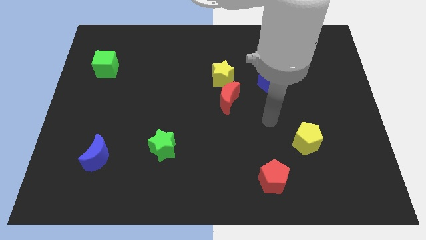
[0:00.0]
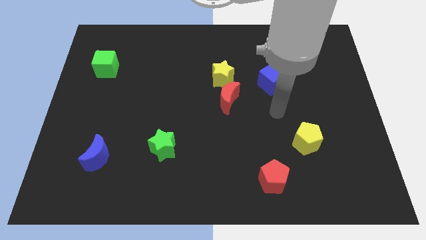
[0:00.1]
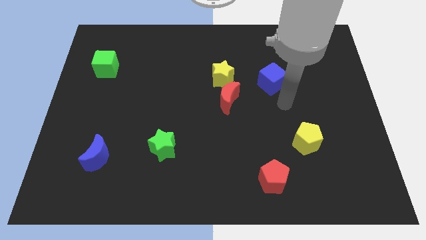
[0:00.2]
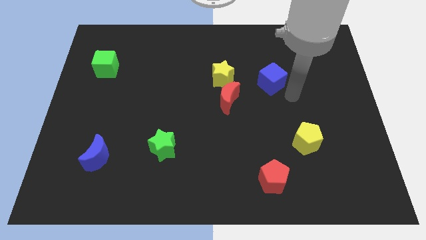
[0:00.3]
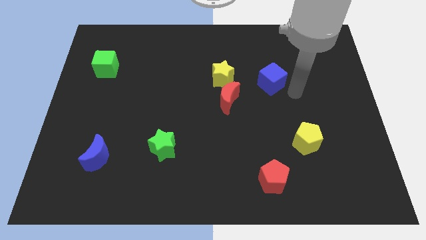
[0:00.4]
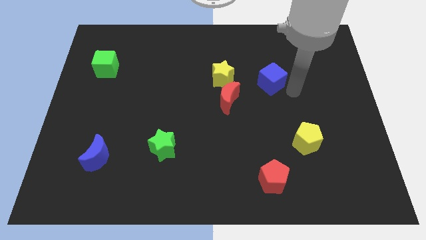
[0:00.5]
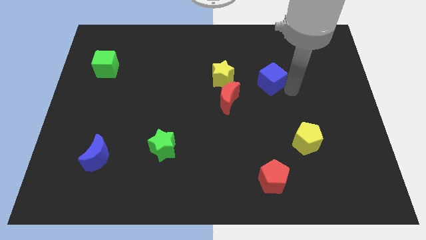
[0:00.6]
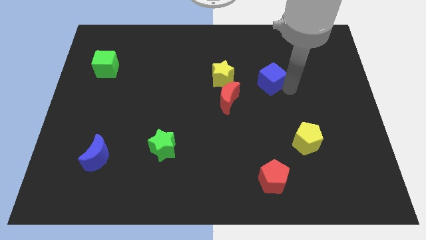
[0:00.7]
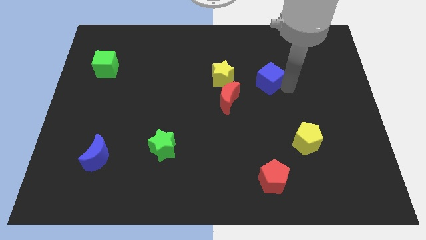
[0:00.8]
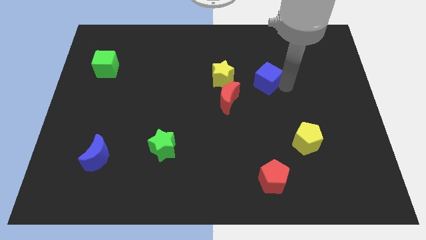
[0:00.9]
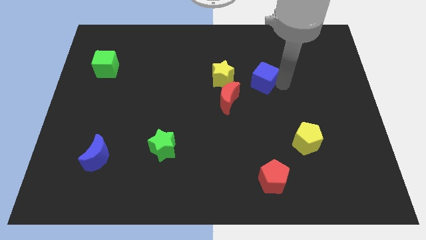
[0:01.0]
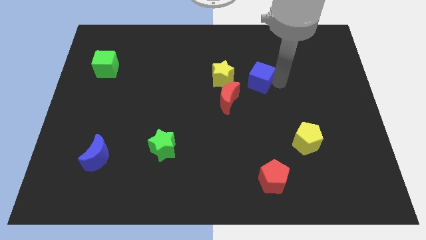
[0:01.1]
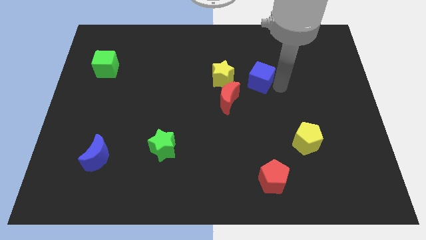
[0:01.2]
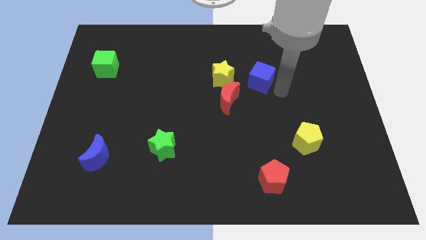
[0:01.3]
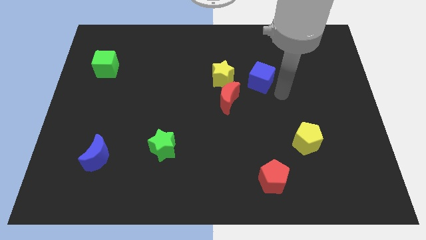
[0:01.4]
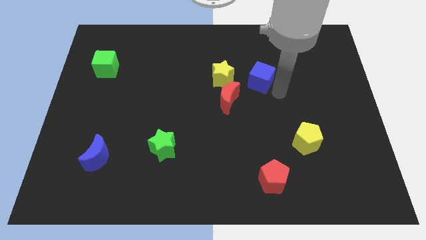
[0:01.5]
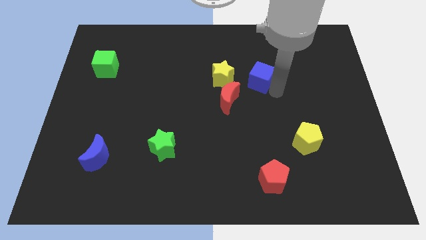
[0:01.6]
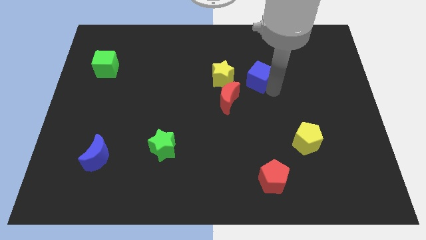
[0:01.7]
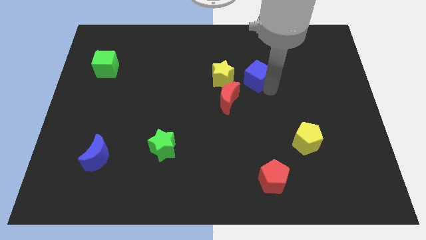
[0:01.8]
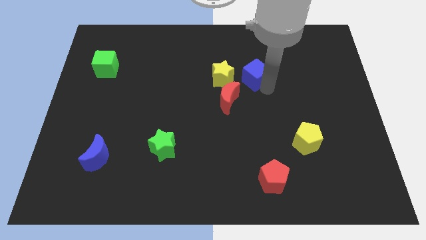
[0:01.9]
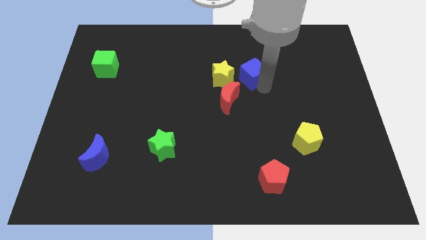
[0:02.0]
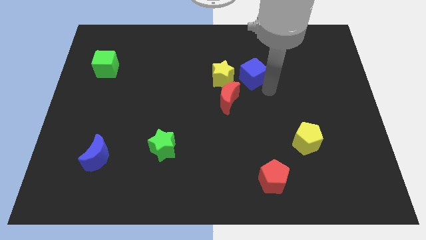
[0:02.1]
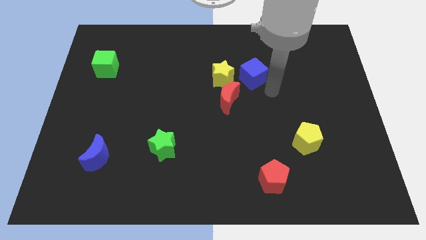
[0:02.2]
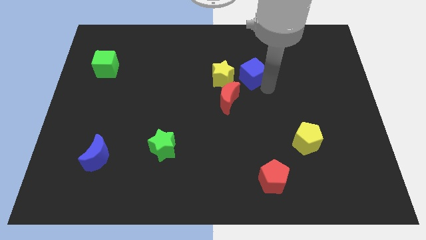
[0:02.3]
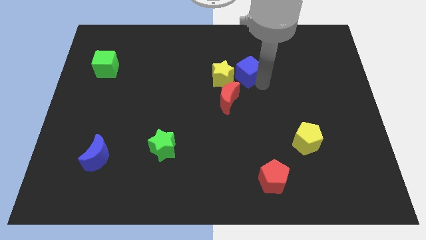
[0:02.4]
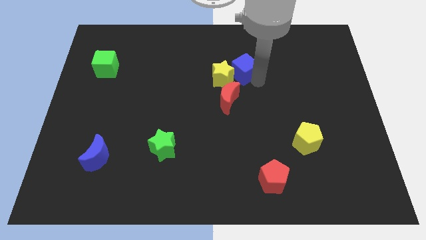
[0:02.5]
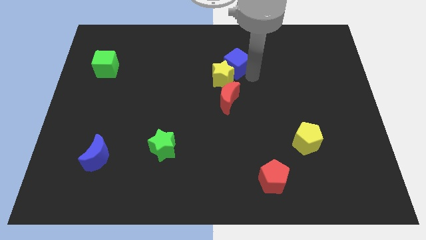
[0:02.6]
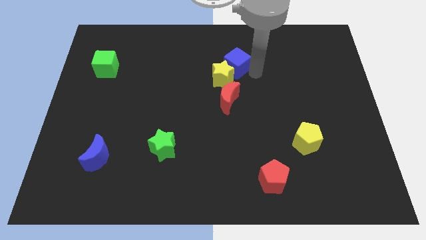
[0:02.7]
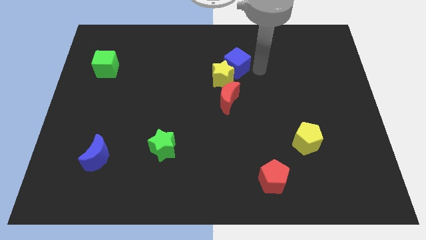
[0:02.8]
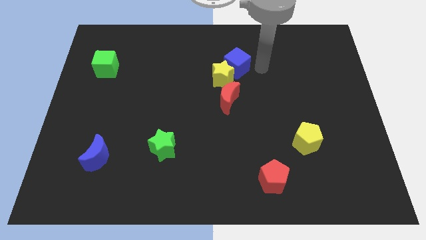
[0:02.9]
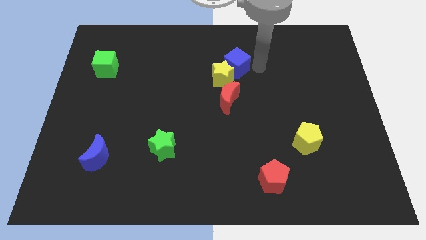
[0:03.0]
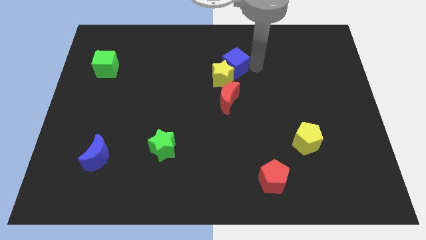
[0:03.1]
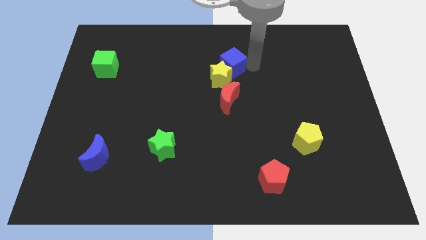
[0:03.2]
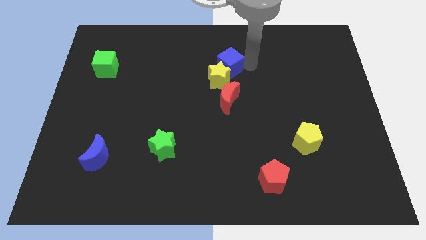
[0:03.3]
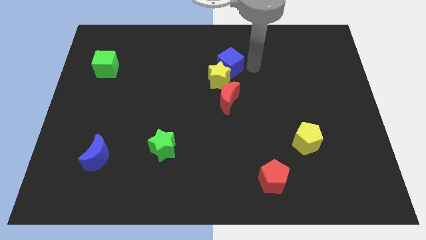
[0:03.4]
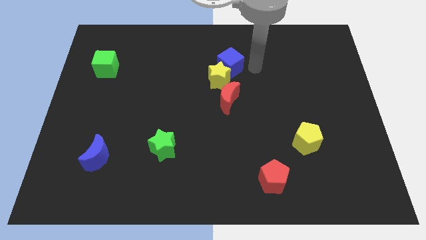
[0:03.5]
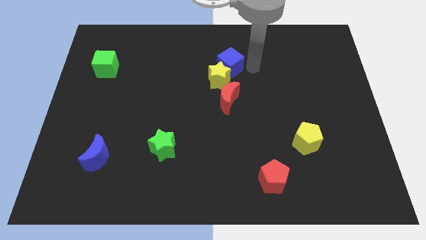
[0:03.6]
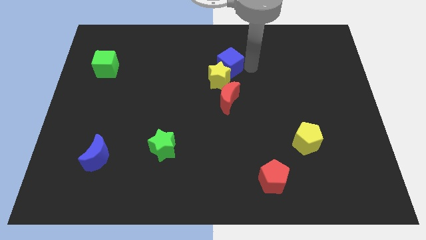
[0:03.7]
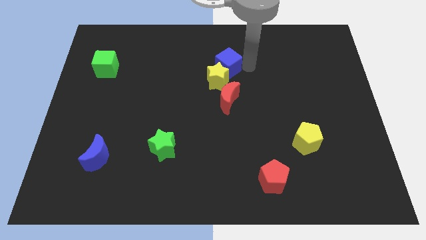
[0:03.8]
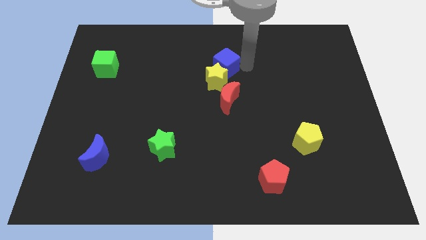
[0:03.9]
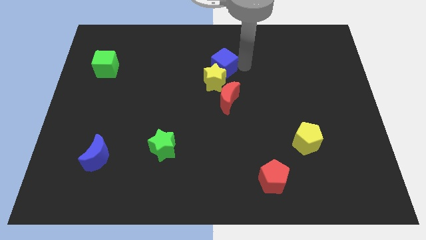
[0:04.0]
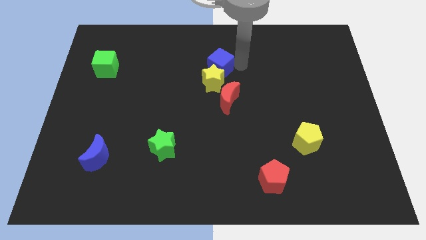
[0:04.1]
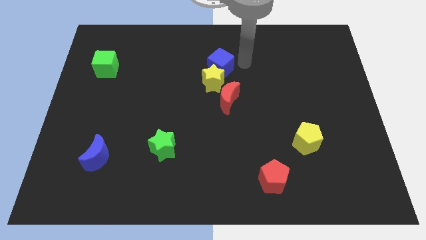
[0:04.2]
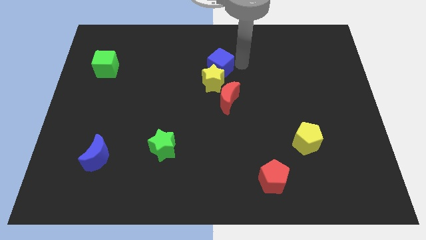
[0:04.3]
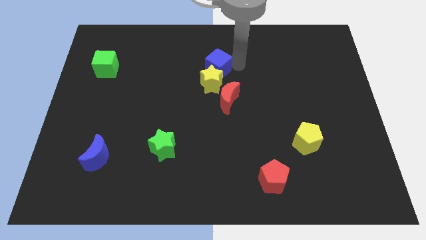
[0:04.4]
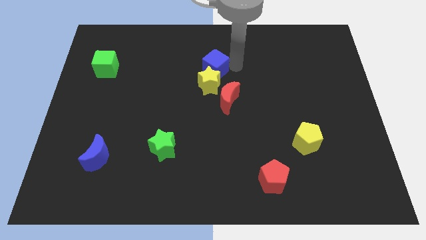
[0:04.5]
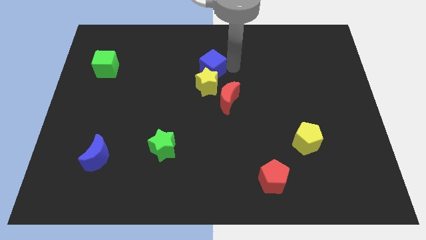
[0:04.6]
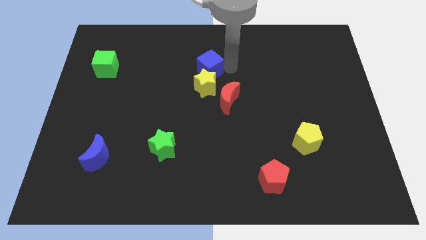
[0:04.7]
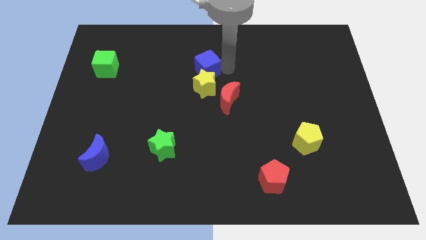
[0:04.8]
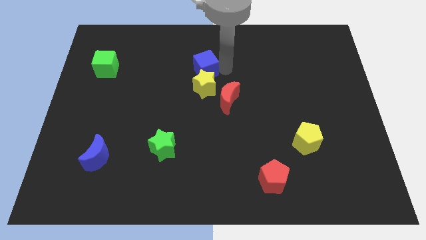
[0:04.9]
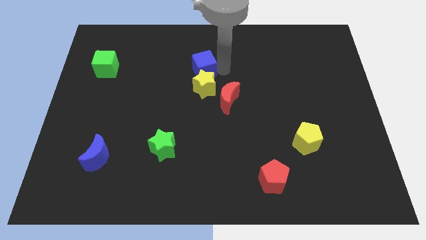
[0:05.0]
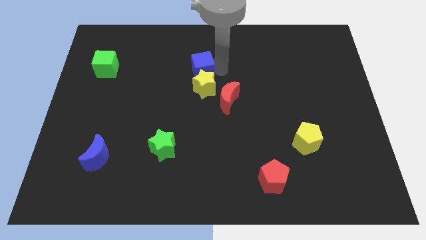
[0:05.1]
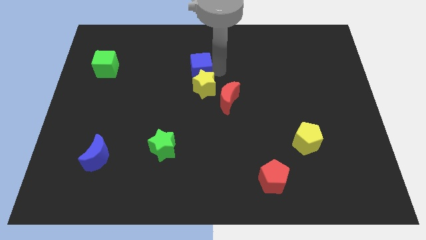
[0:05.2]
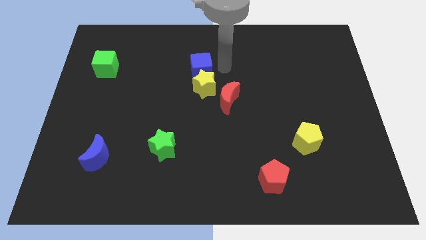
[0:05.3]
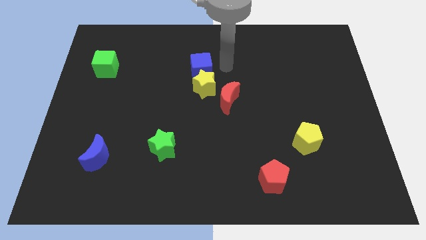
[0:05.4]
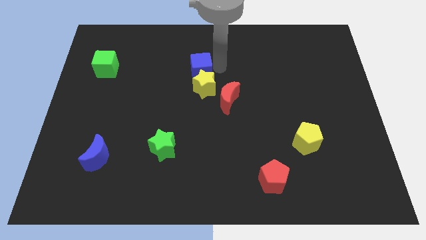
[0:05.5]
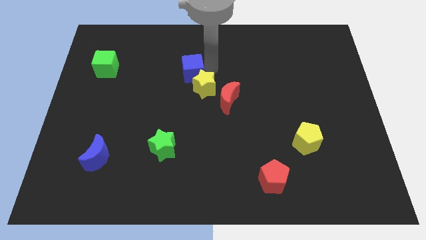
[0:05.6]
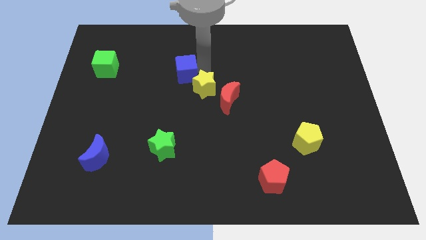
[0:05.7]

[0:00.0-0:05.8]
move the blue cube to the left

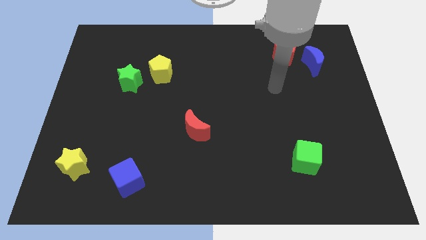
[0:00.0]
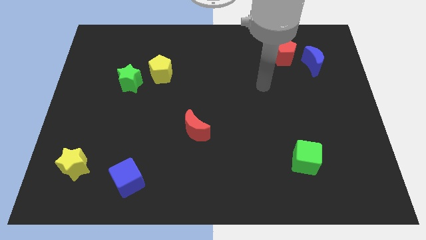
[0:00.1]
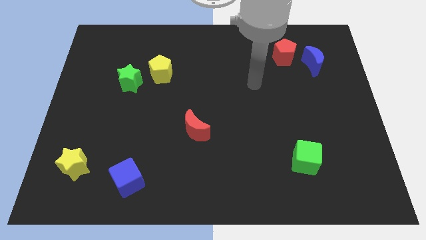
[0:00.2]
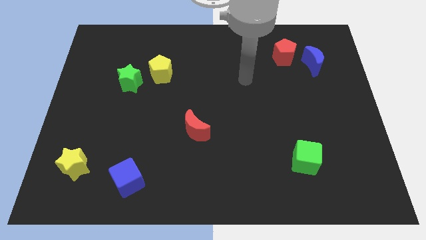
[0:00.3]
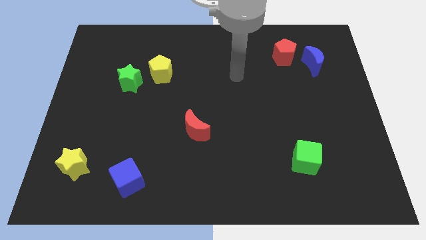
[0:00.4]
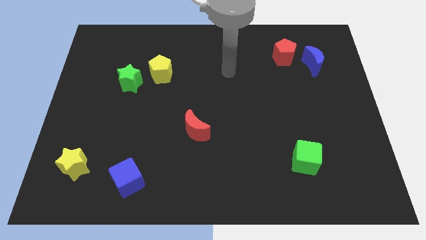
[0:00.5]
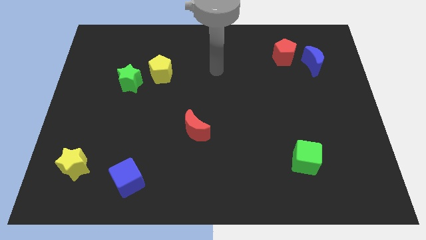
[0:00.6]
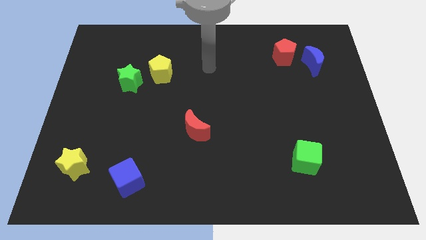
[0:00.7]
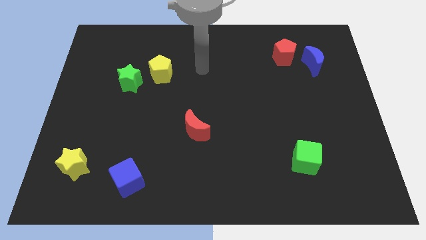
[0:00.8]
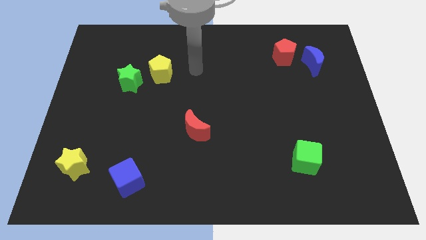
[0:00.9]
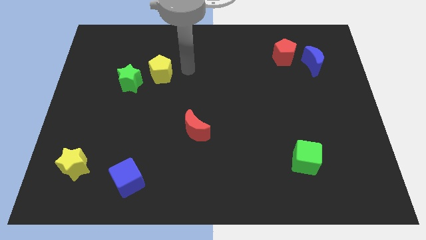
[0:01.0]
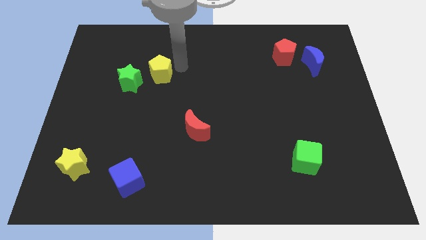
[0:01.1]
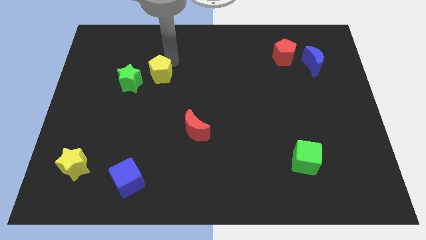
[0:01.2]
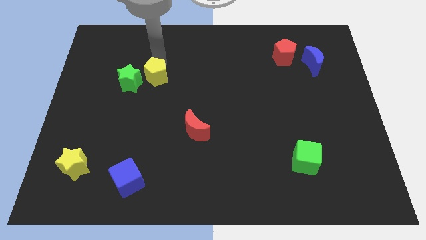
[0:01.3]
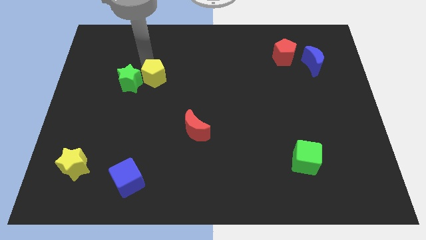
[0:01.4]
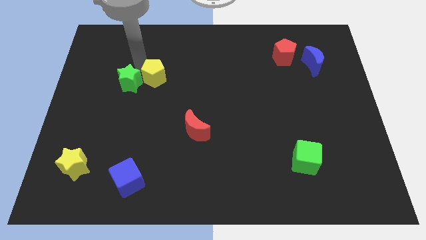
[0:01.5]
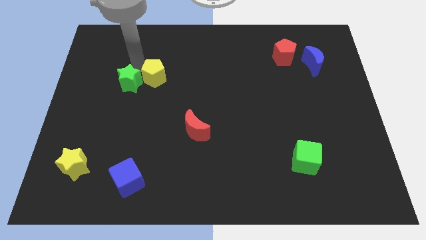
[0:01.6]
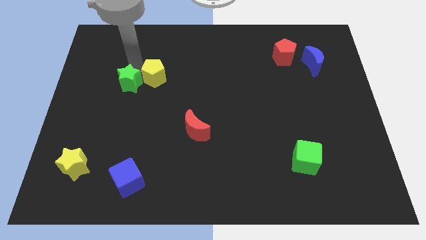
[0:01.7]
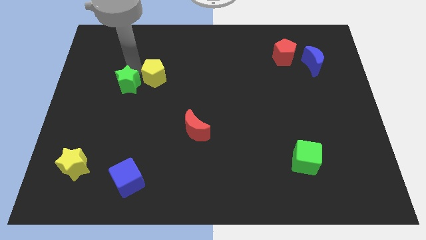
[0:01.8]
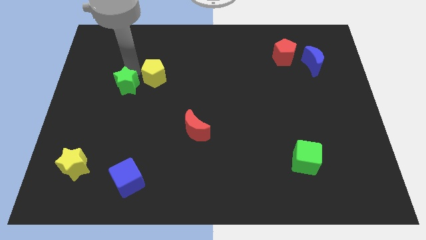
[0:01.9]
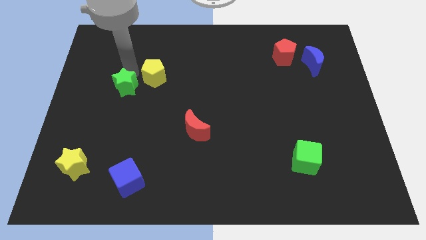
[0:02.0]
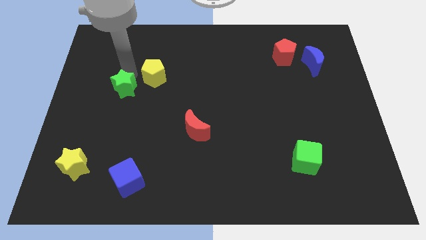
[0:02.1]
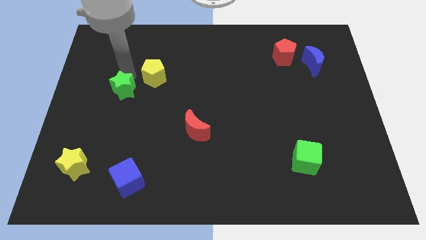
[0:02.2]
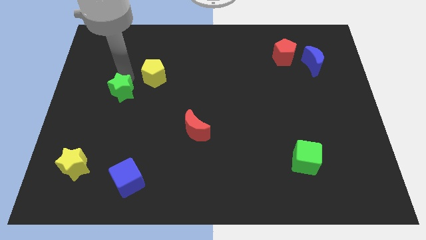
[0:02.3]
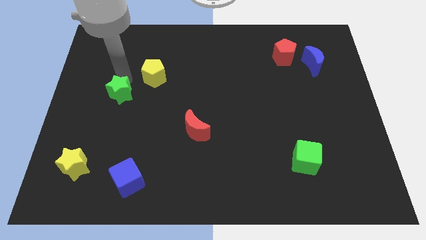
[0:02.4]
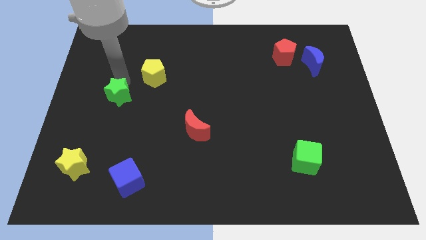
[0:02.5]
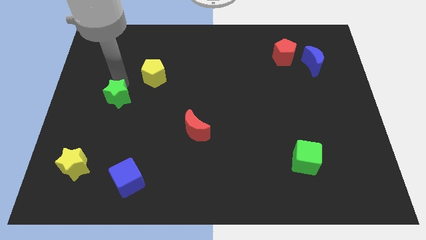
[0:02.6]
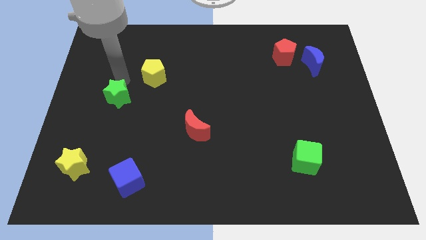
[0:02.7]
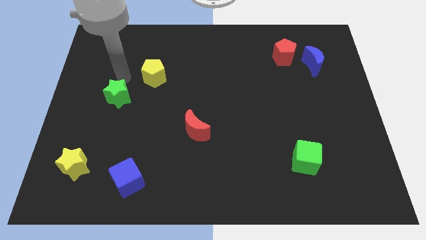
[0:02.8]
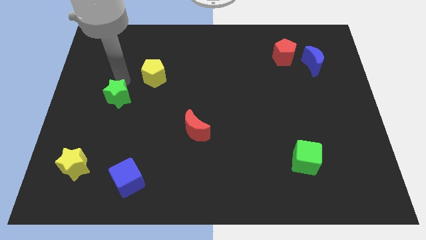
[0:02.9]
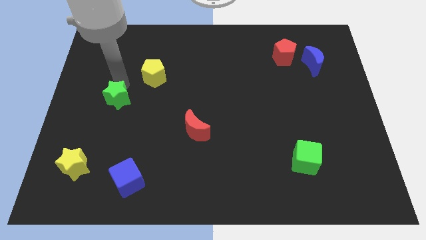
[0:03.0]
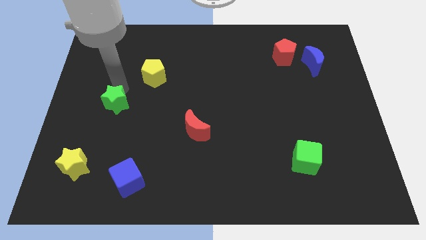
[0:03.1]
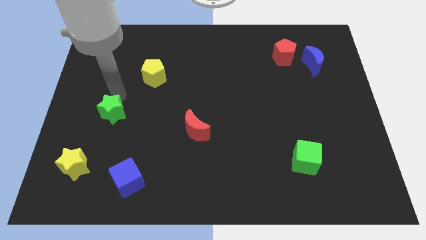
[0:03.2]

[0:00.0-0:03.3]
slightly slide the green star downwards
